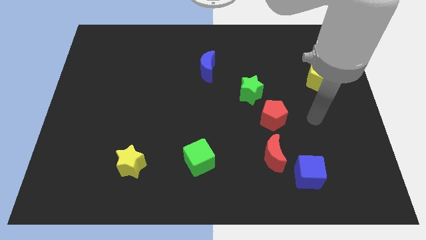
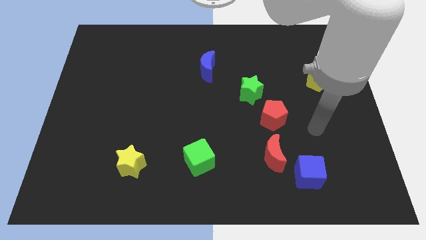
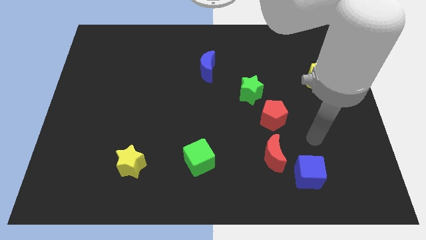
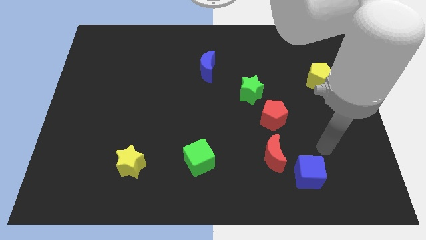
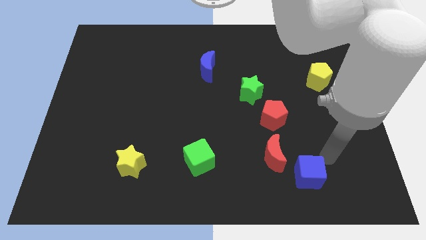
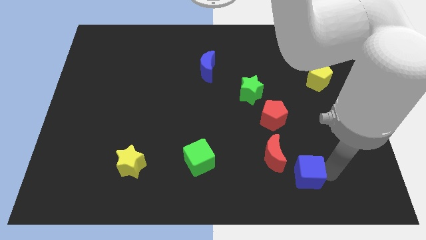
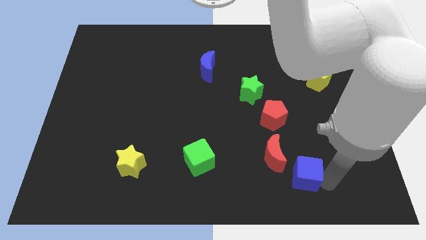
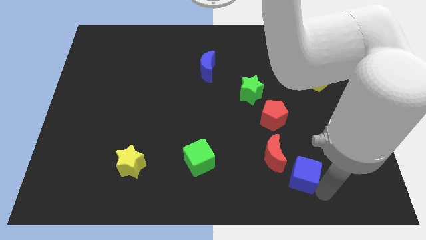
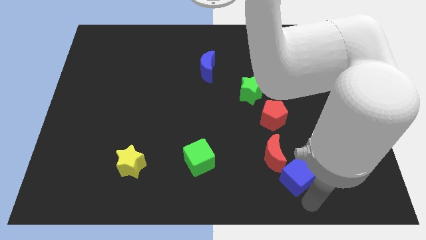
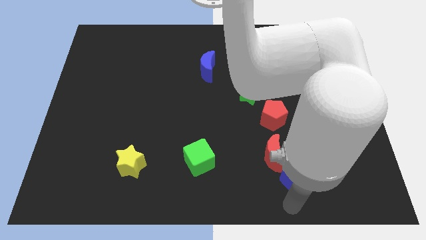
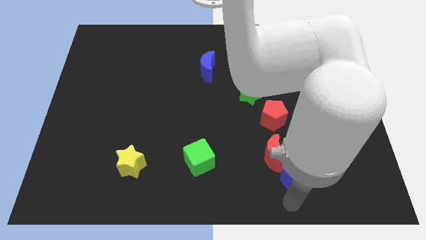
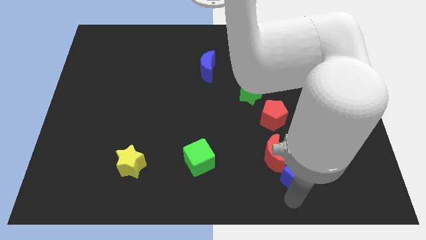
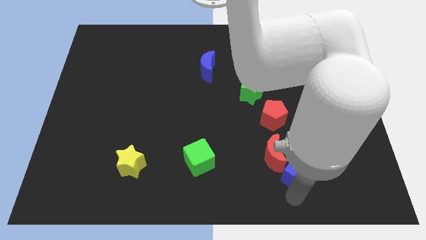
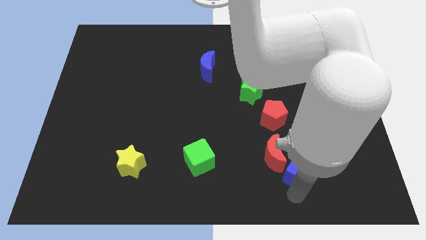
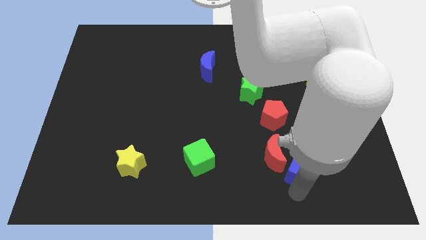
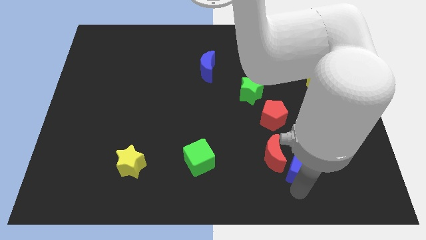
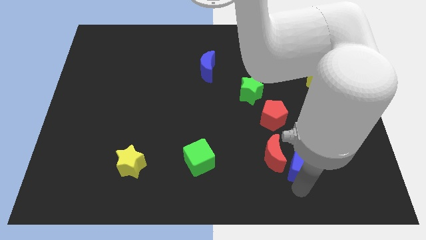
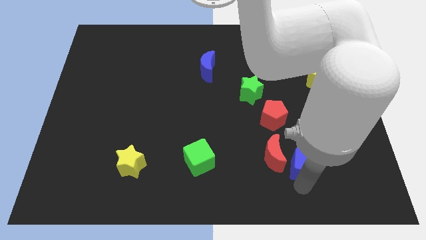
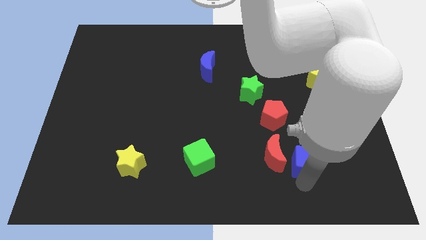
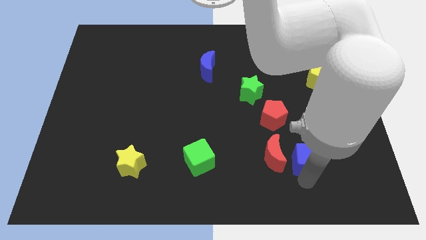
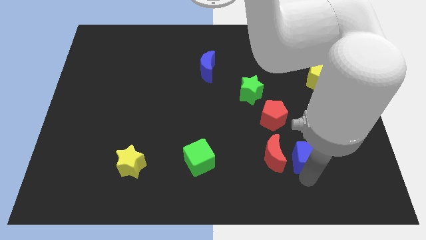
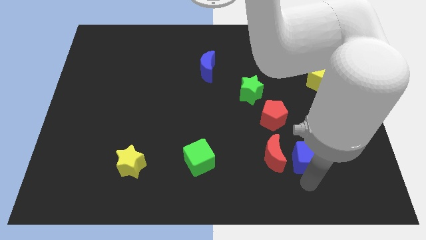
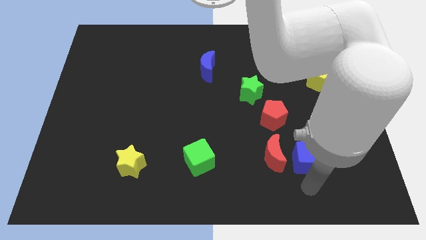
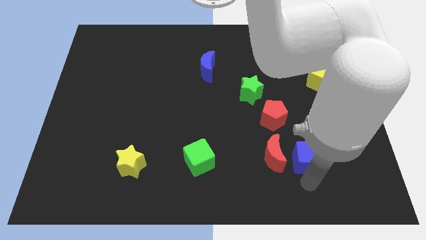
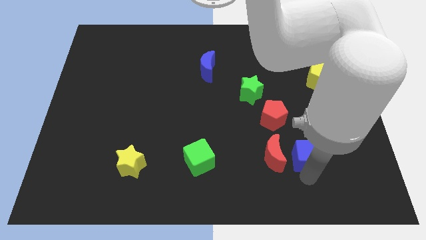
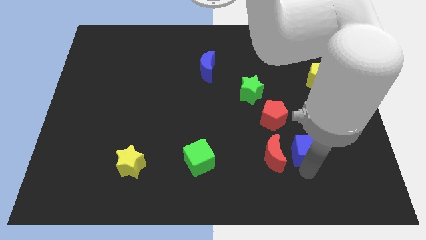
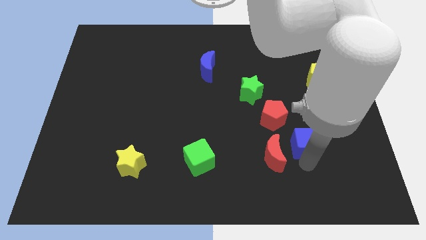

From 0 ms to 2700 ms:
slightly slide the blue cube upwards

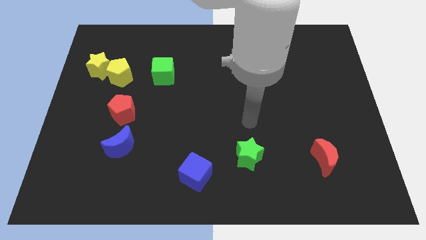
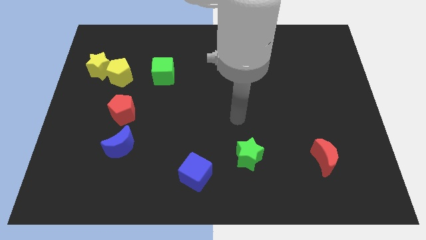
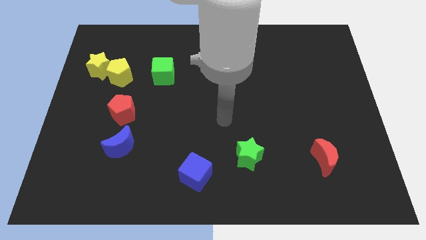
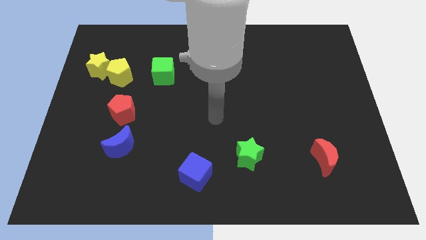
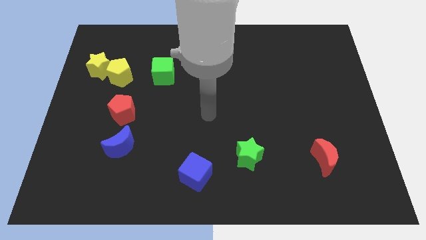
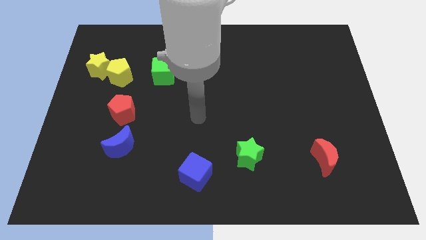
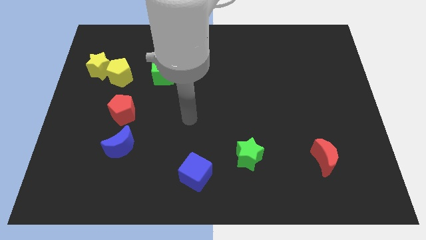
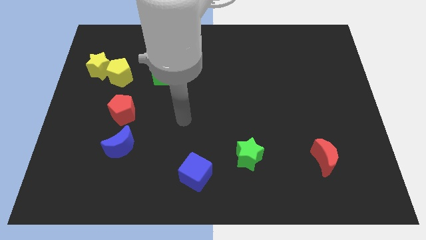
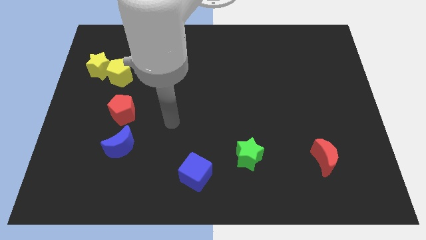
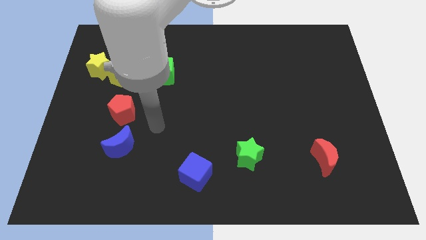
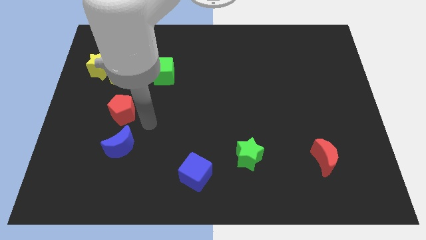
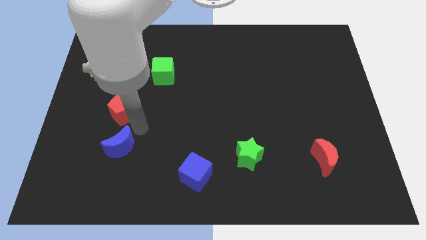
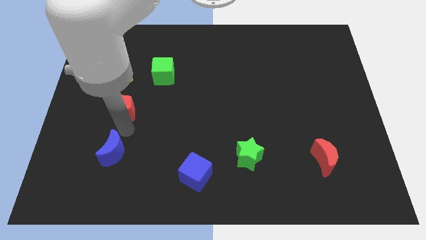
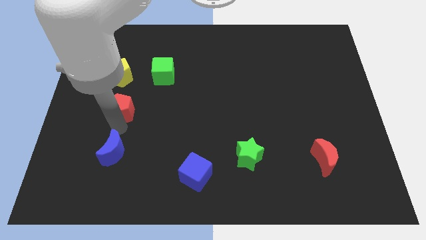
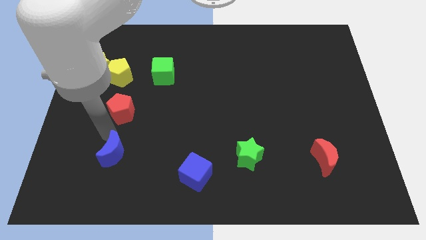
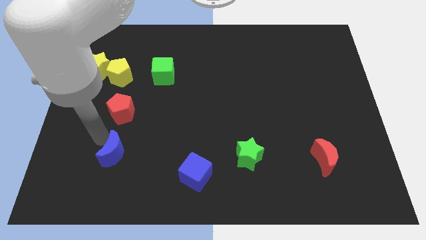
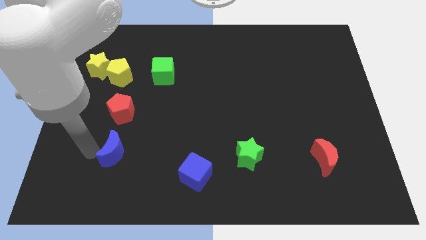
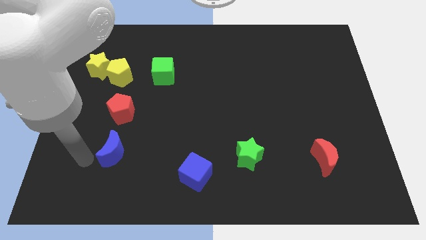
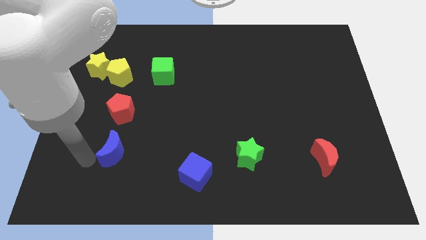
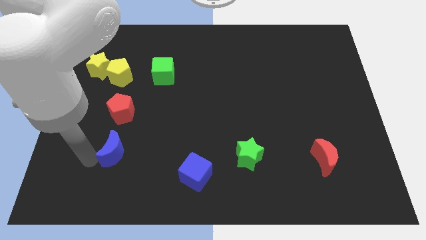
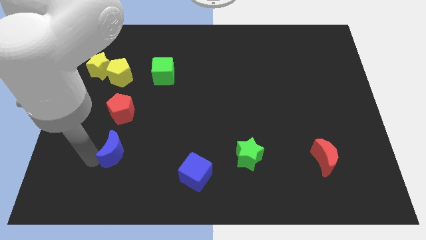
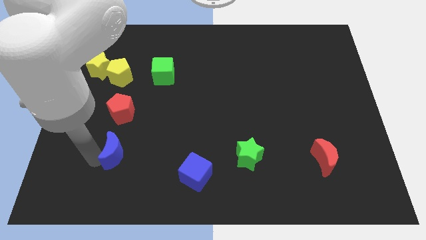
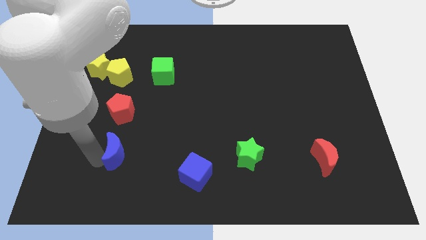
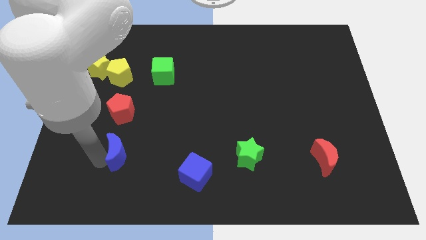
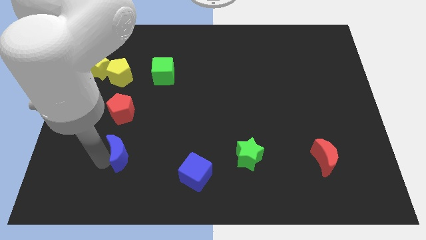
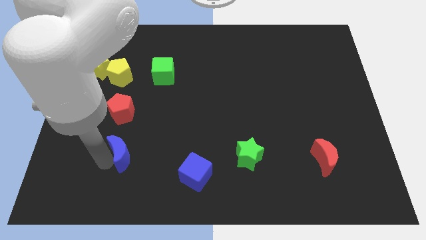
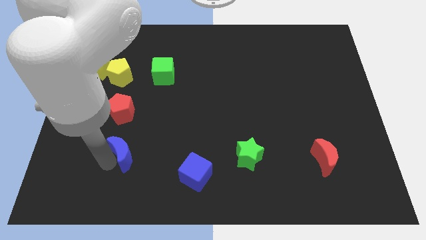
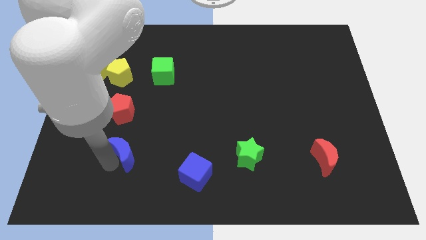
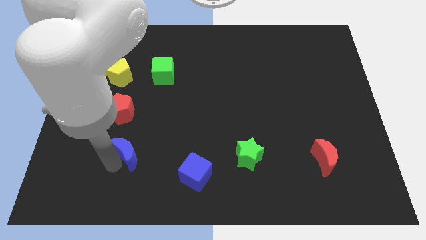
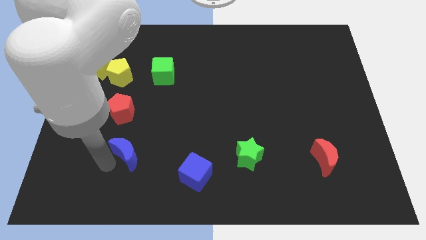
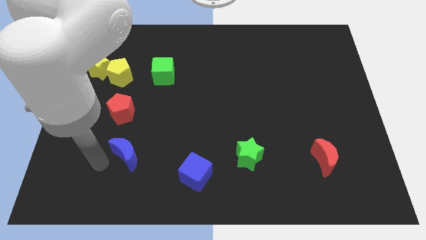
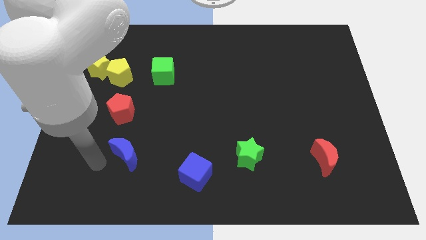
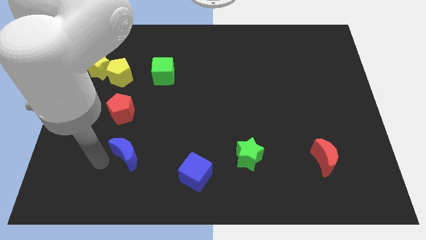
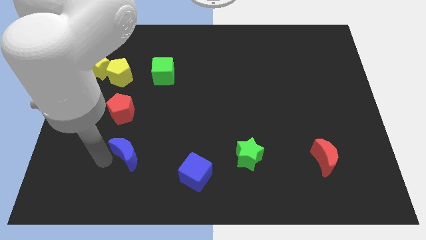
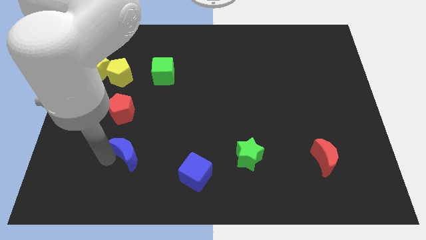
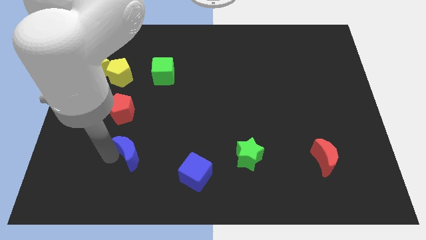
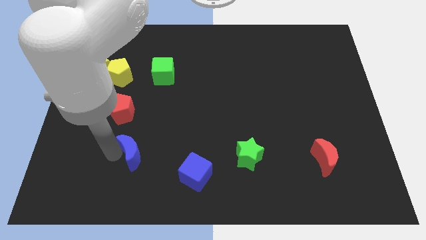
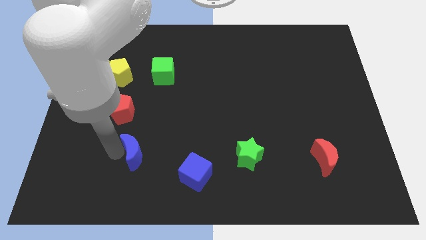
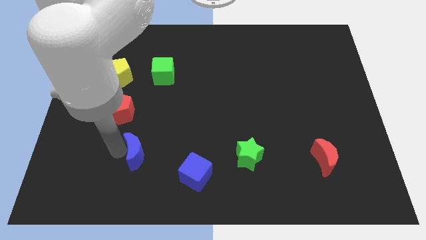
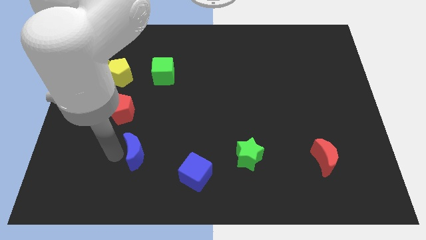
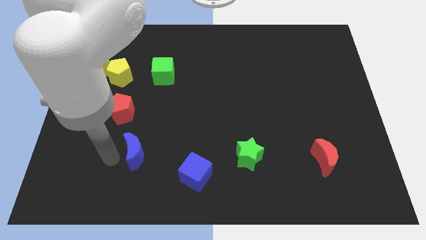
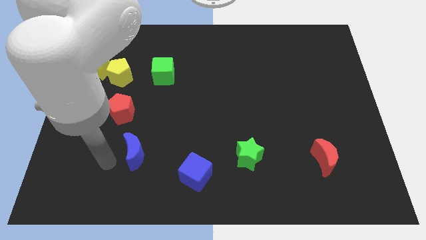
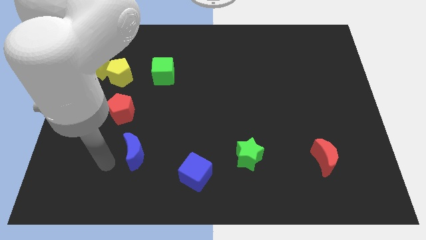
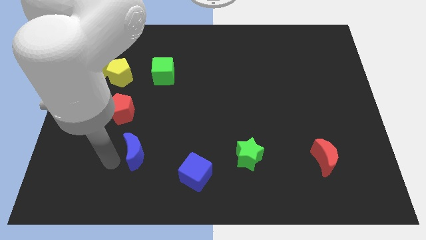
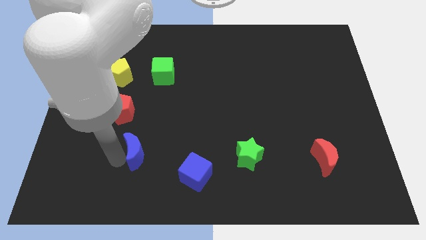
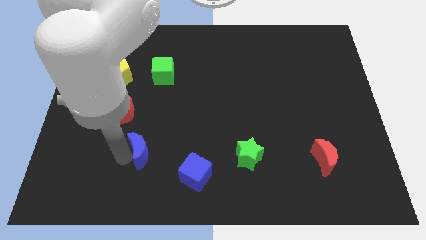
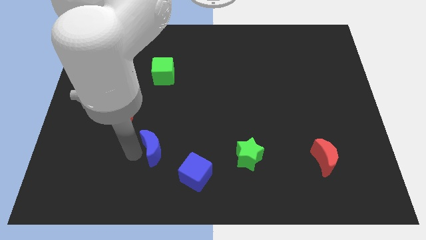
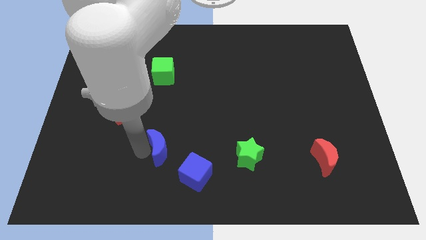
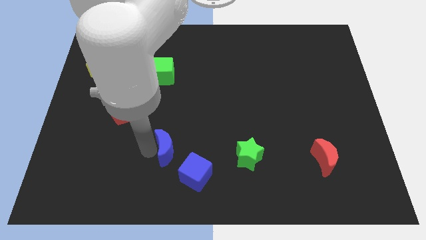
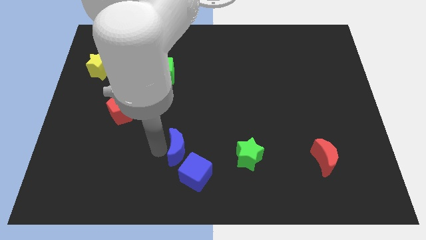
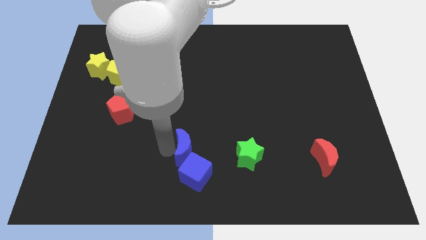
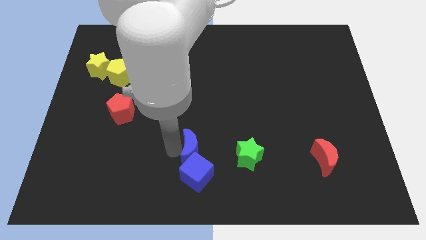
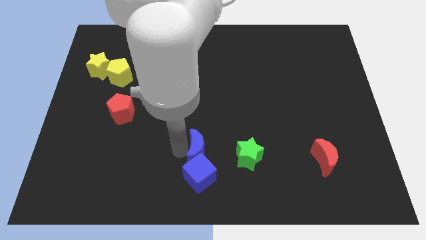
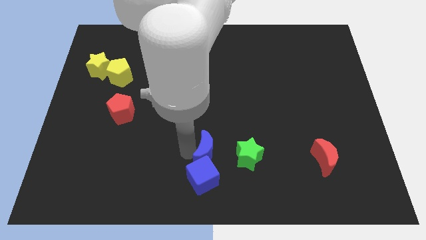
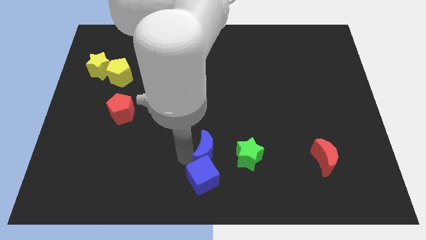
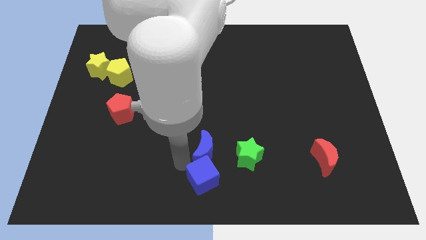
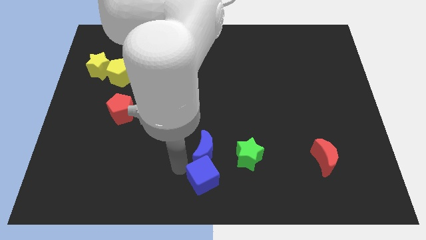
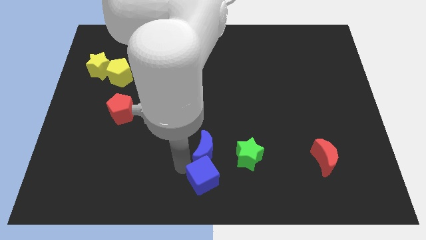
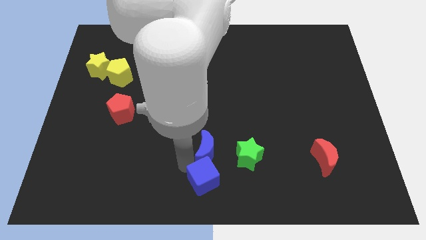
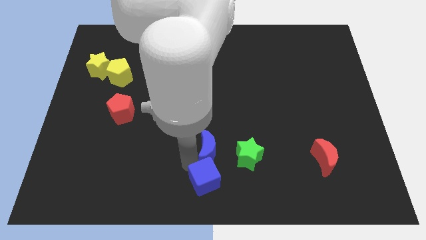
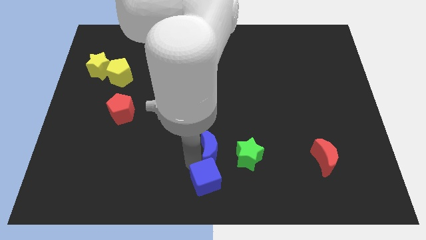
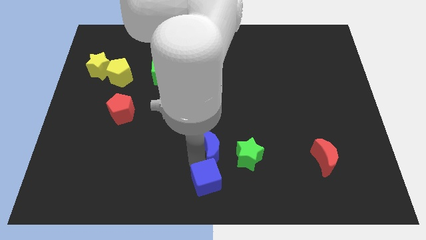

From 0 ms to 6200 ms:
slide the blue moon to the right
